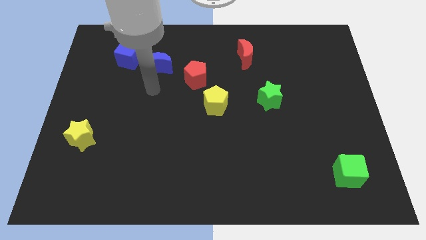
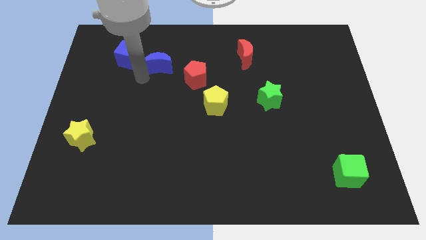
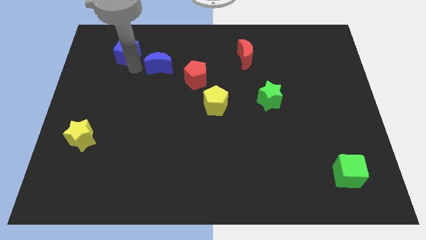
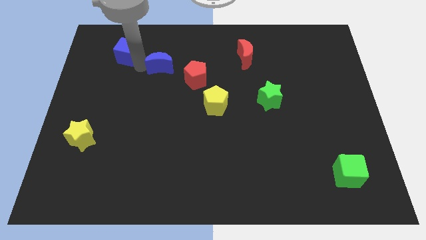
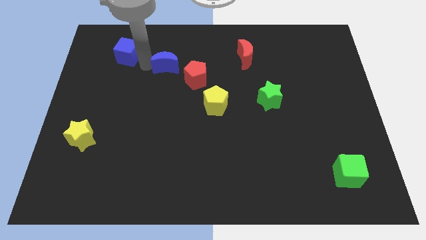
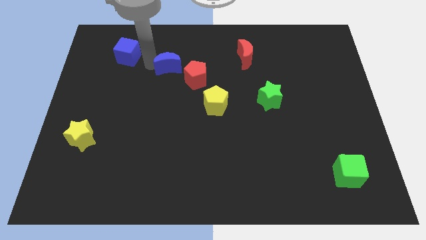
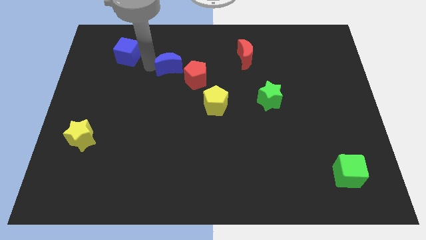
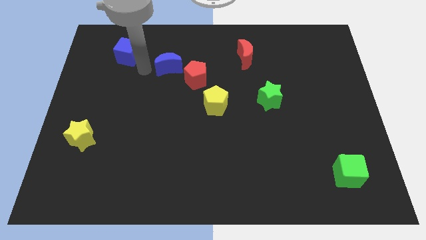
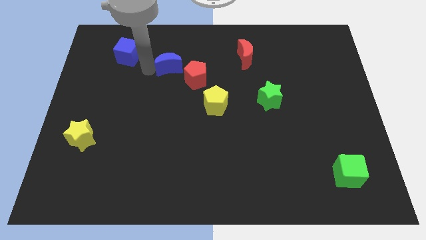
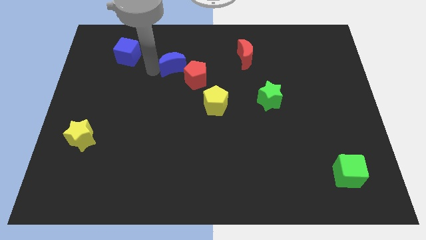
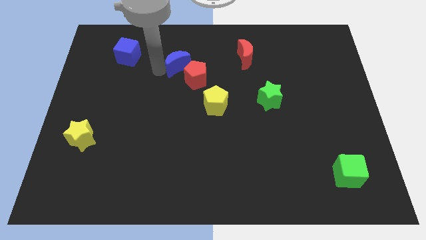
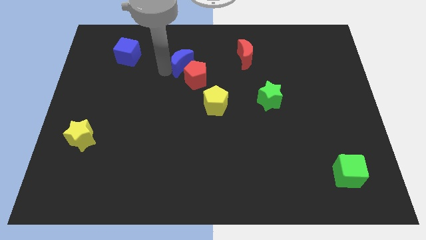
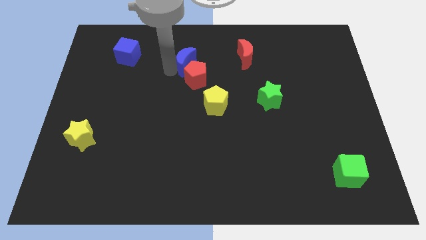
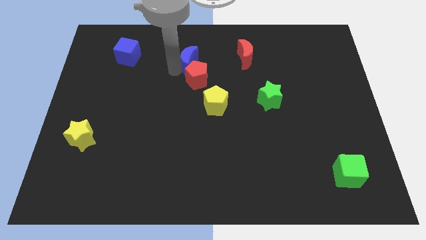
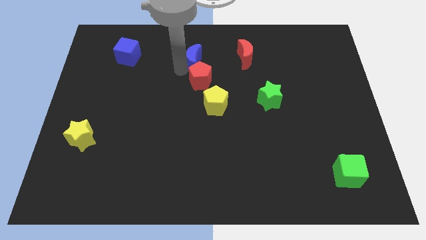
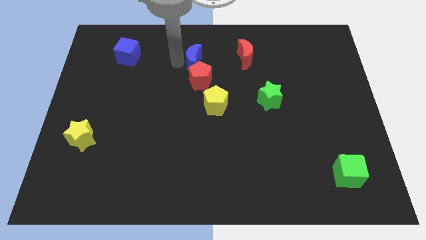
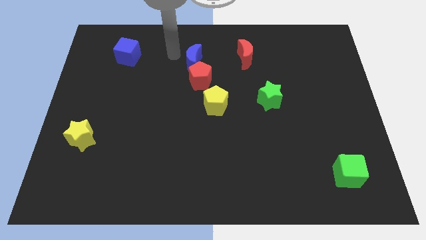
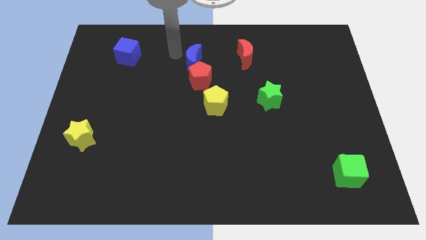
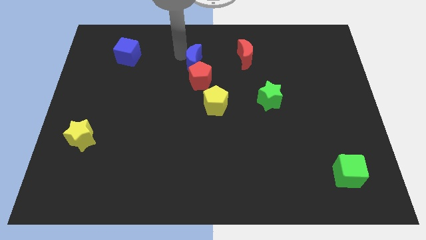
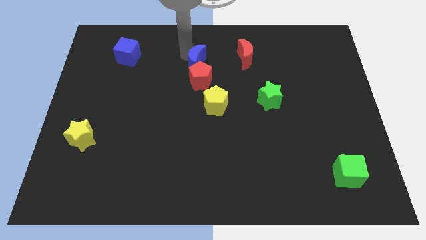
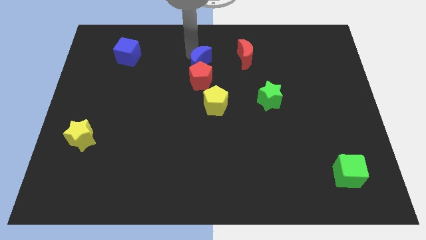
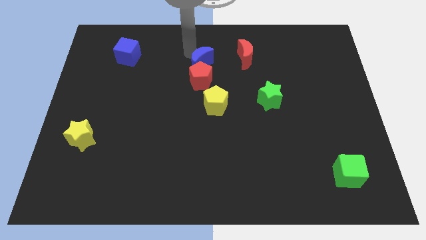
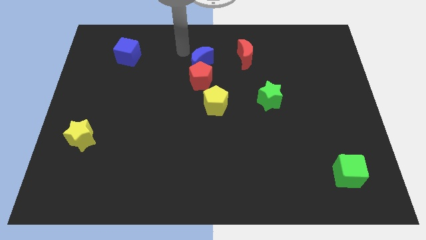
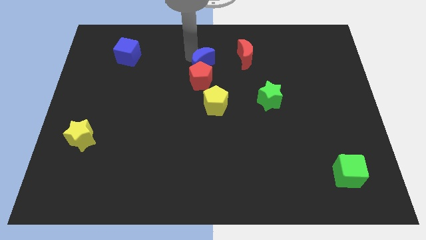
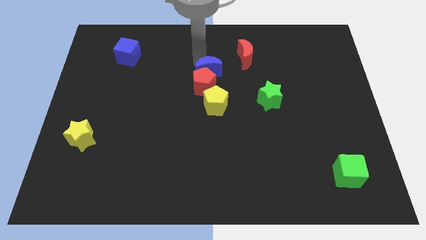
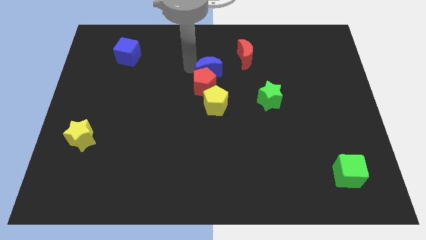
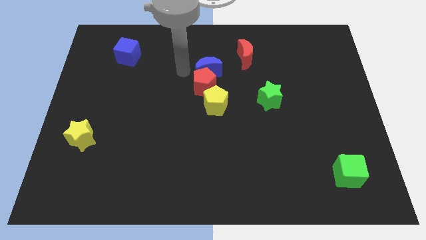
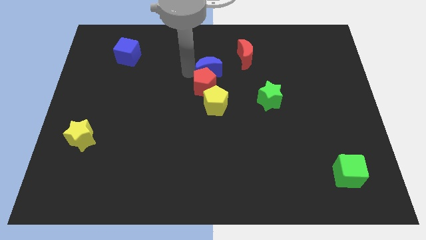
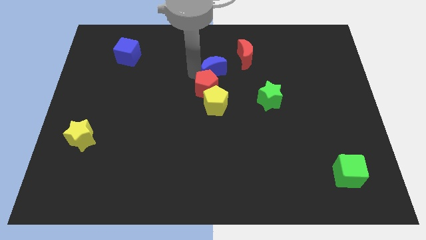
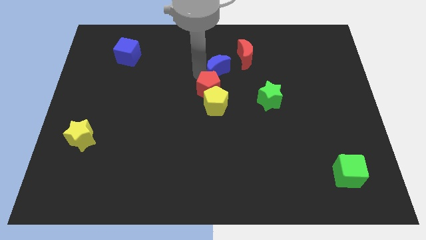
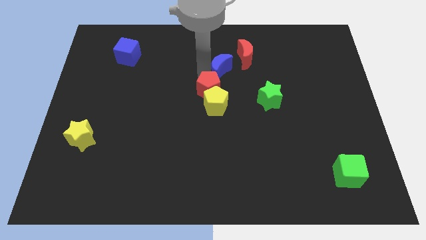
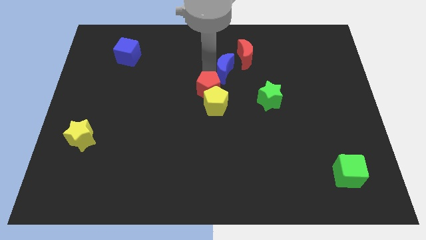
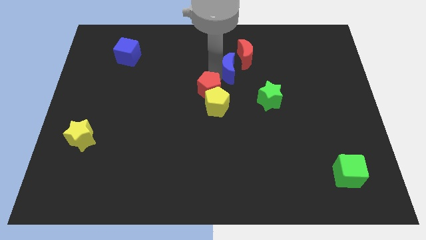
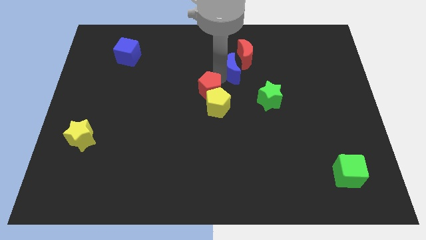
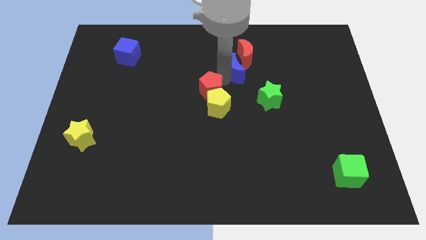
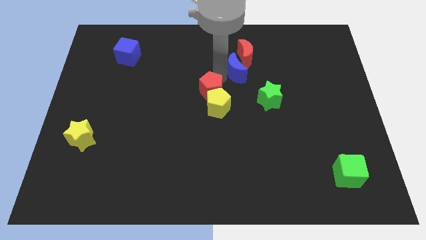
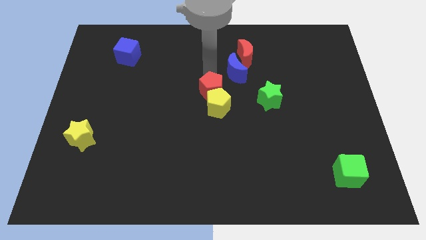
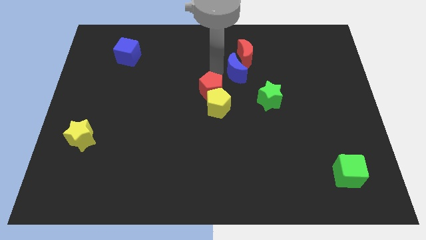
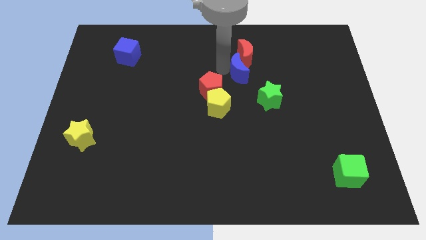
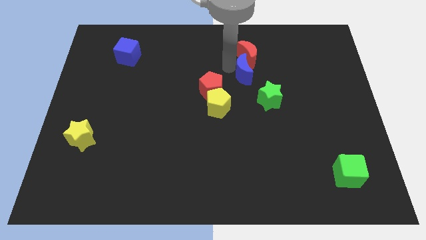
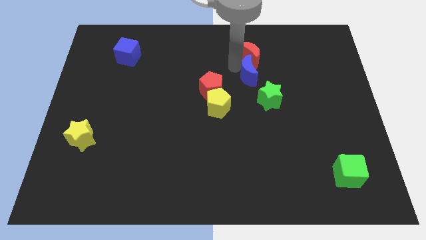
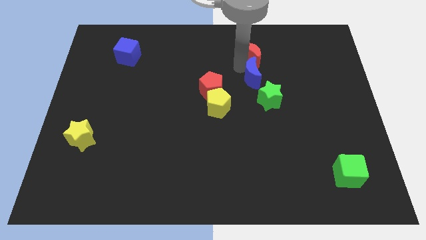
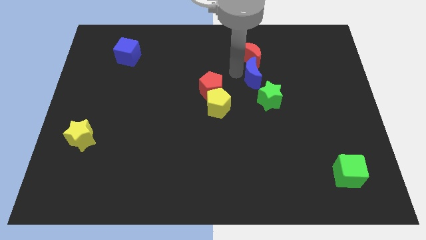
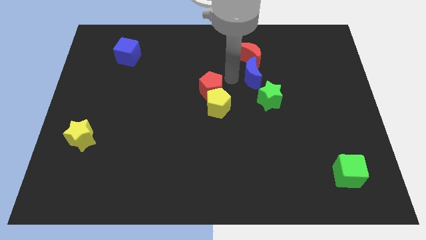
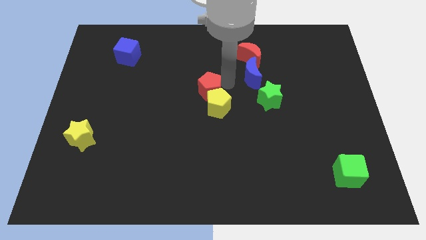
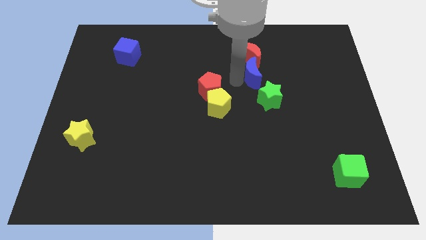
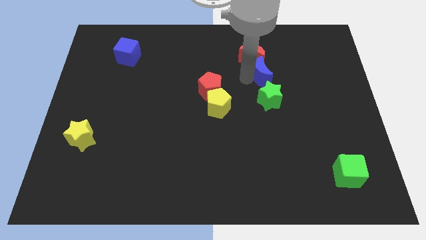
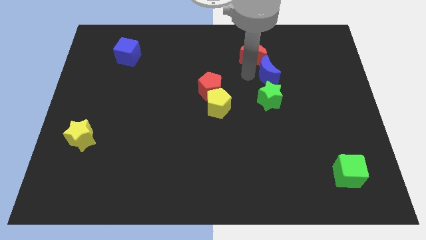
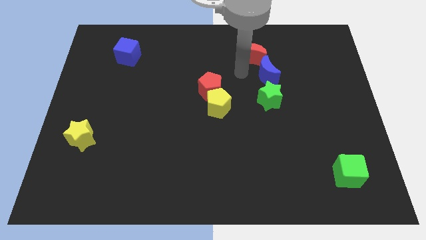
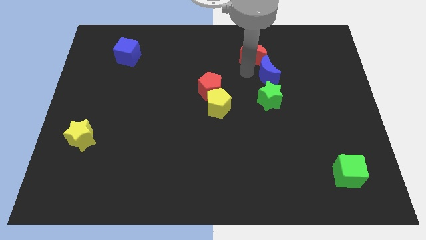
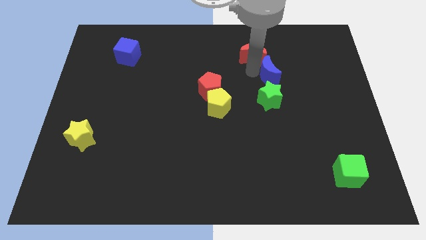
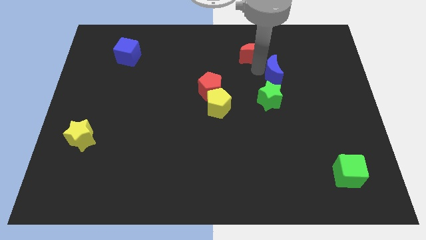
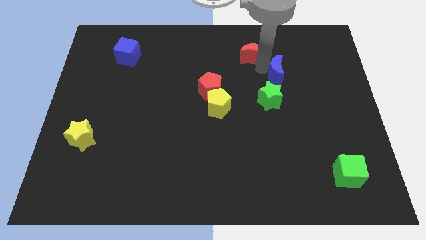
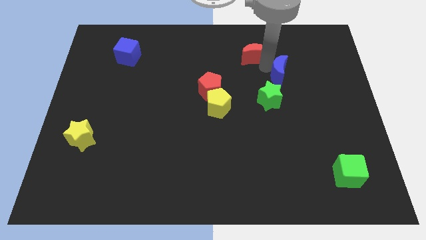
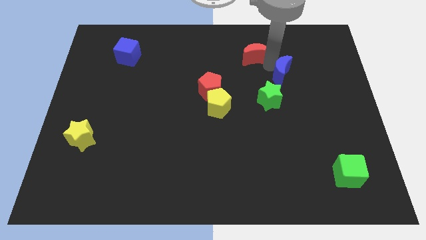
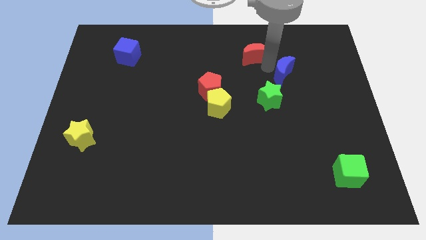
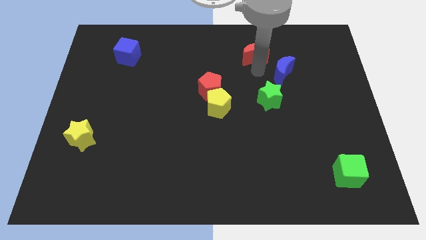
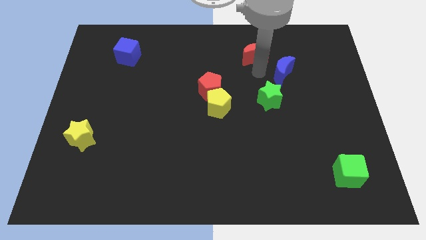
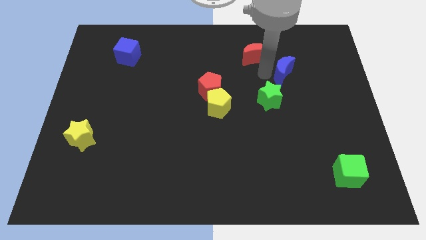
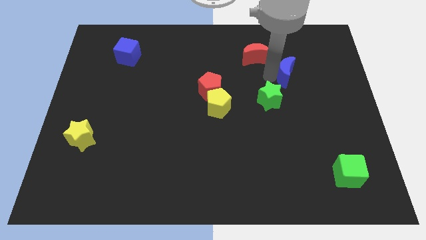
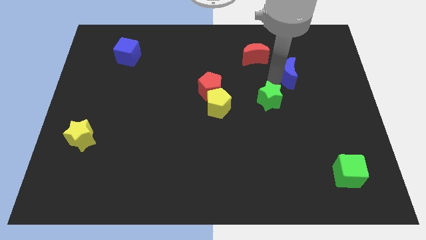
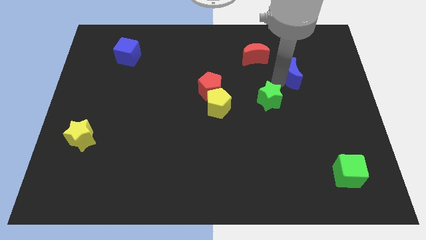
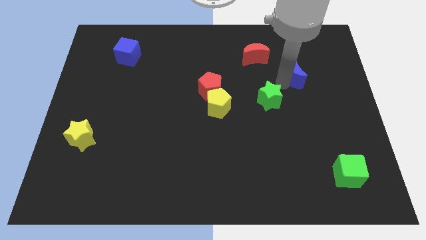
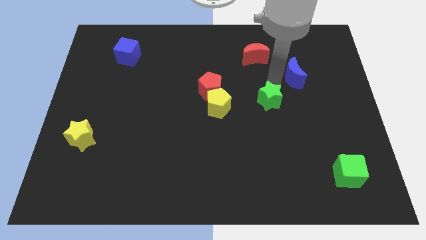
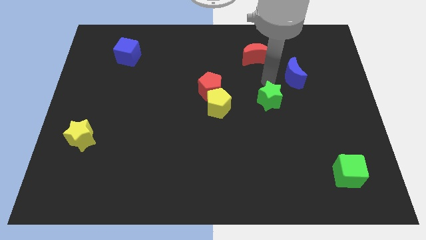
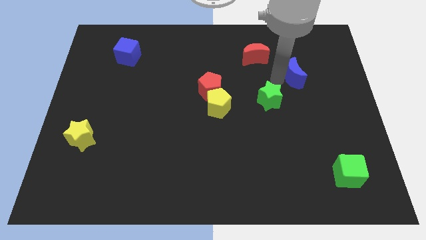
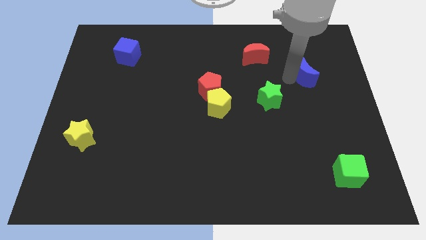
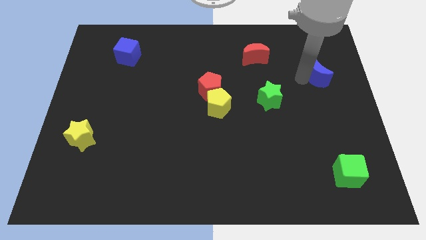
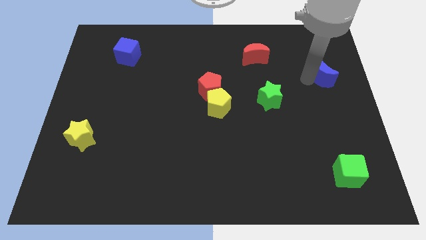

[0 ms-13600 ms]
slide the blue moon to the center right

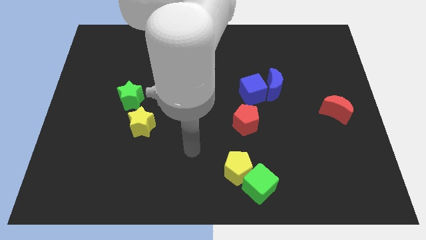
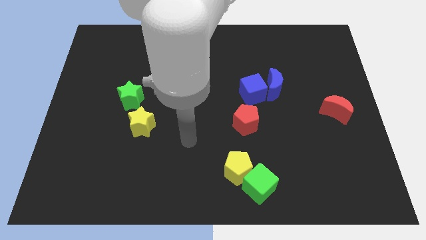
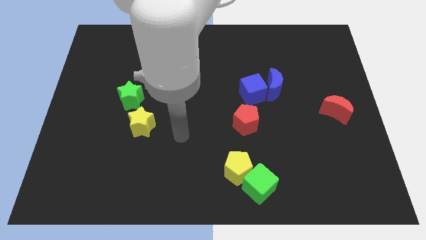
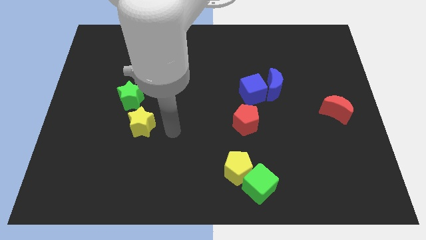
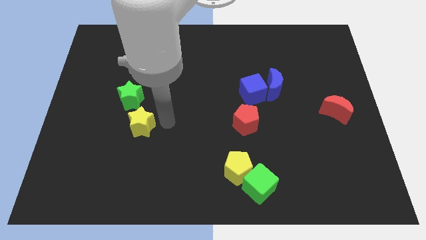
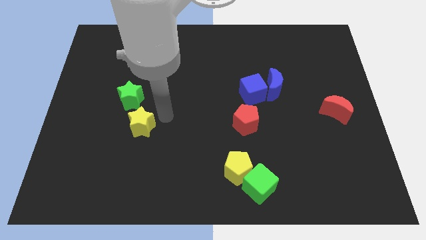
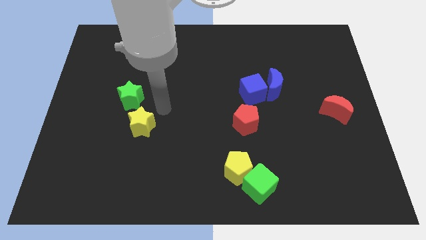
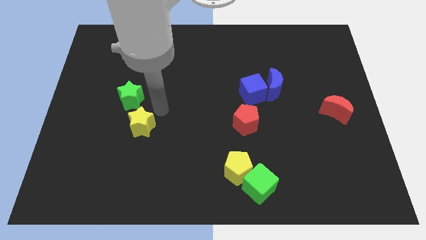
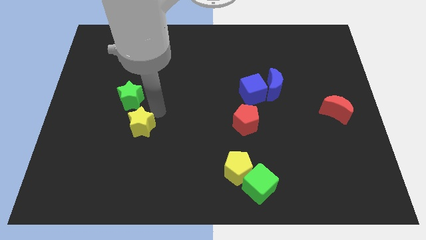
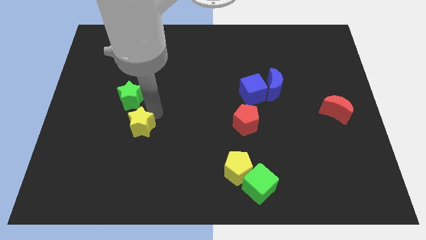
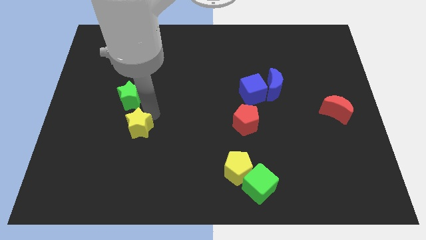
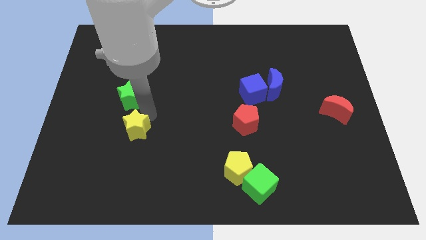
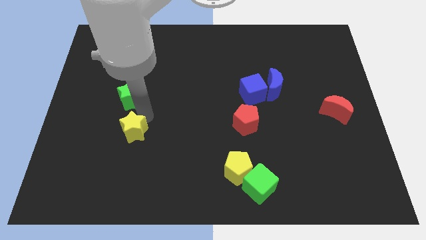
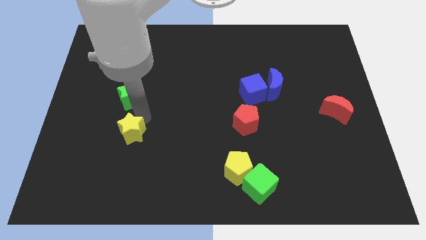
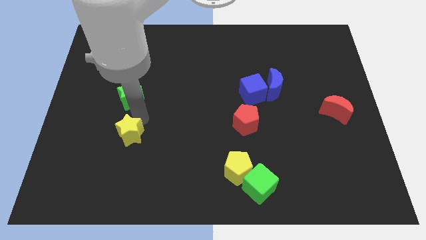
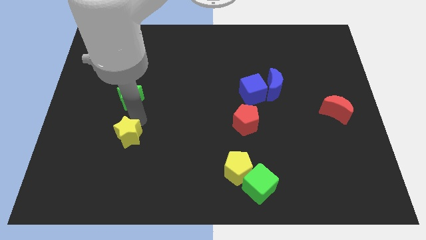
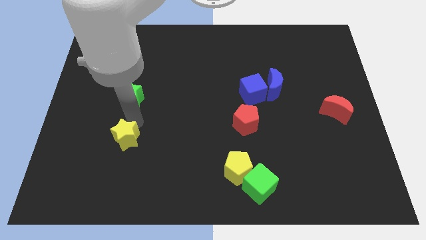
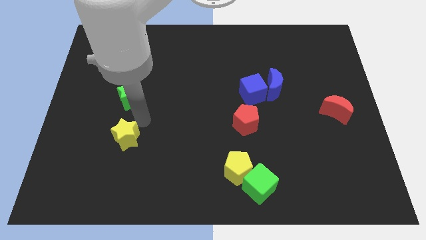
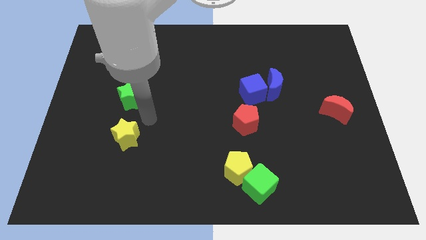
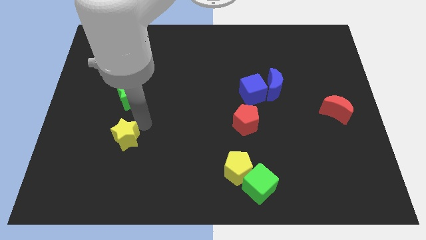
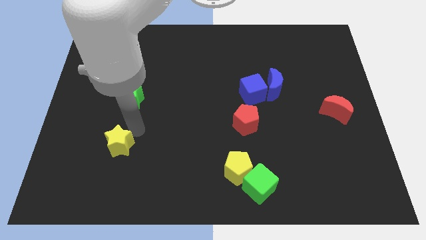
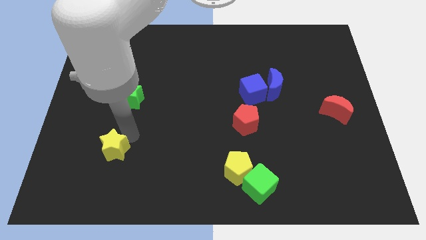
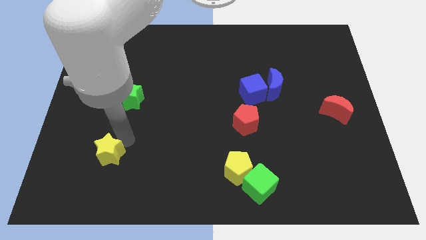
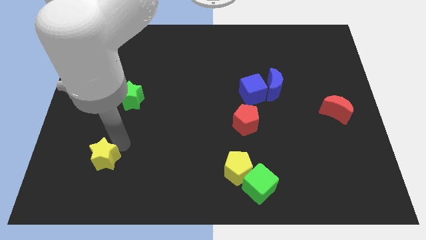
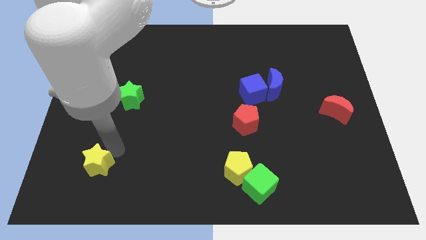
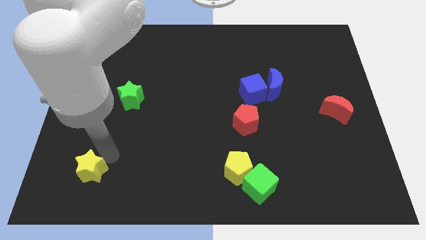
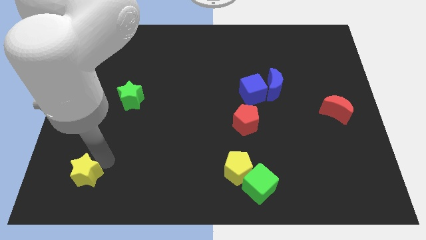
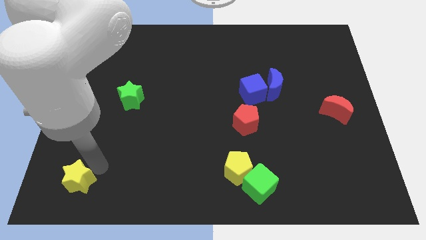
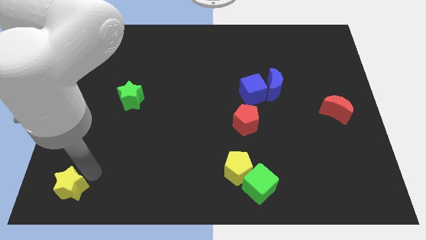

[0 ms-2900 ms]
slide the yellow star to the lower left corner
